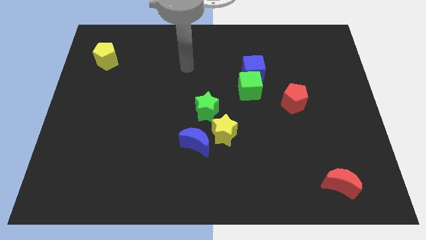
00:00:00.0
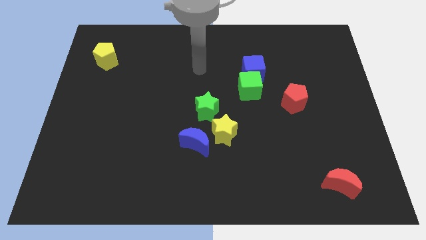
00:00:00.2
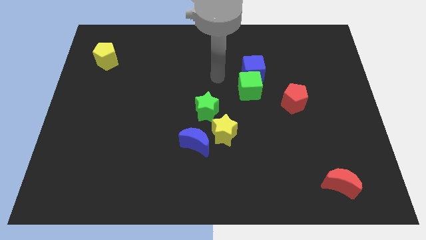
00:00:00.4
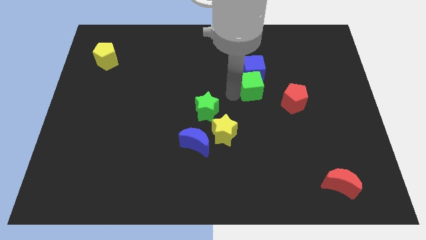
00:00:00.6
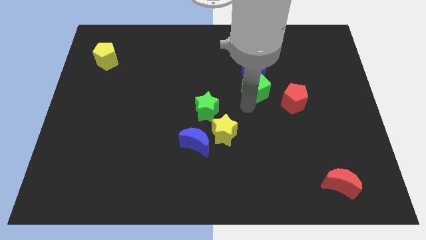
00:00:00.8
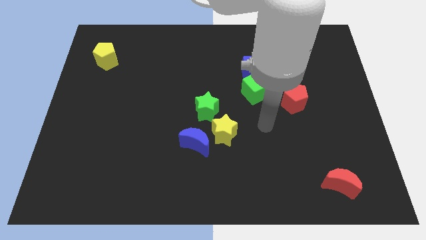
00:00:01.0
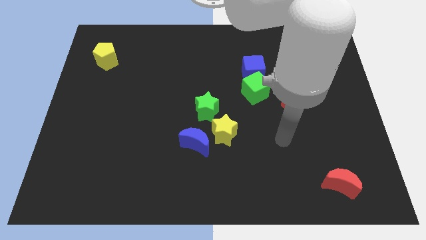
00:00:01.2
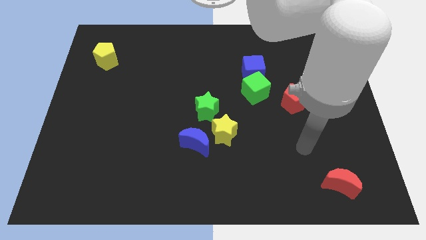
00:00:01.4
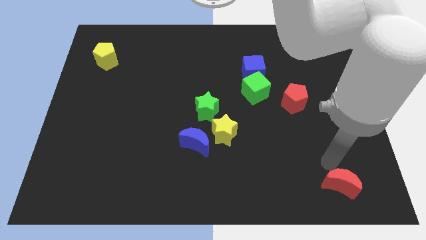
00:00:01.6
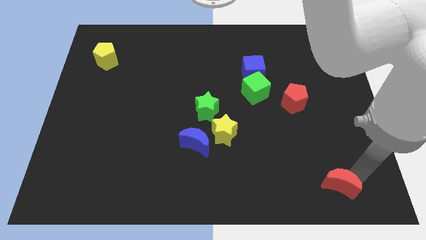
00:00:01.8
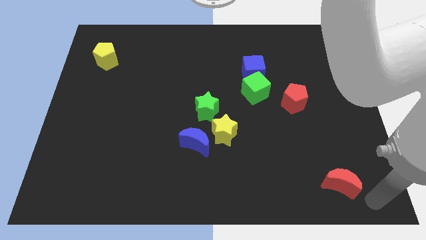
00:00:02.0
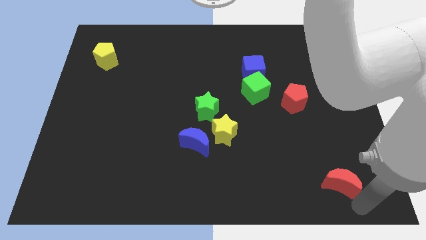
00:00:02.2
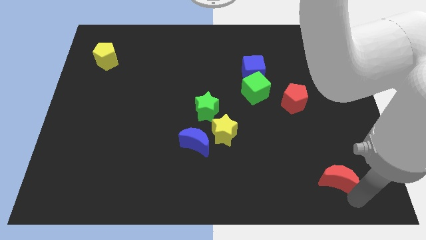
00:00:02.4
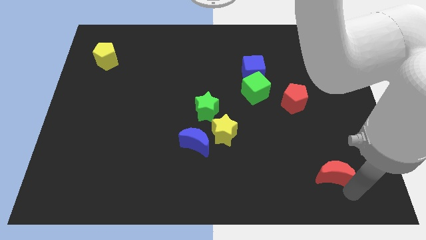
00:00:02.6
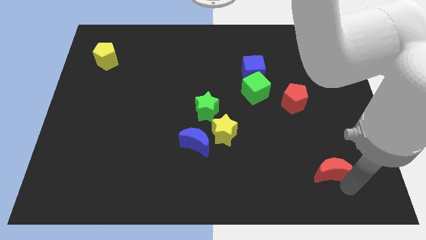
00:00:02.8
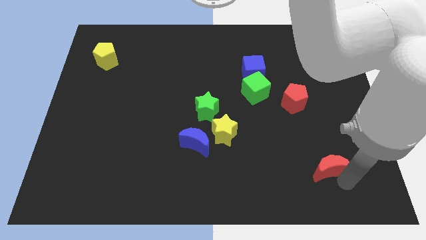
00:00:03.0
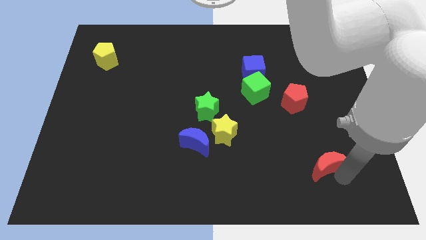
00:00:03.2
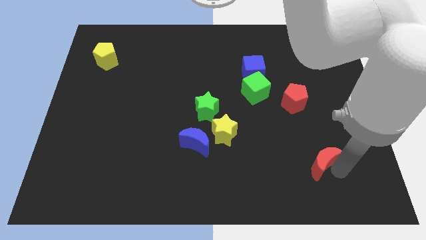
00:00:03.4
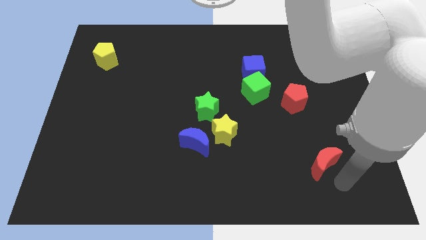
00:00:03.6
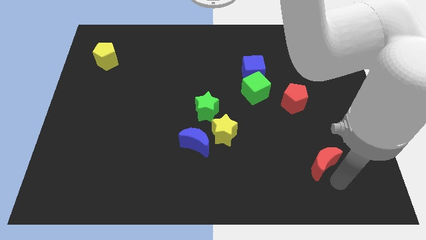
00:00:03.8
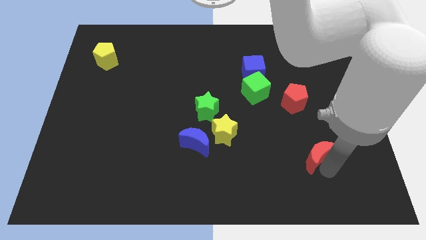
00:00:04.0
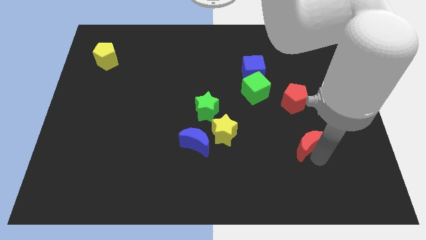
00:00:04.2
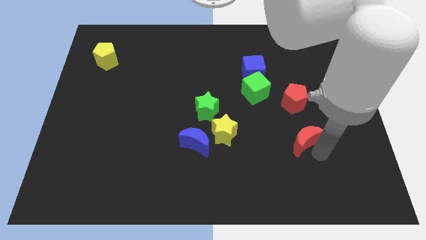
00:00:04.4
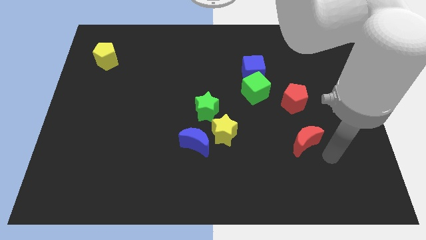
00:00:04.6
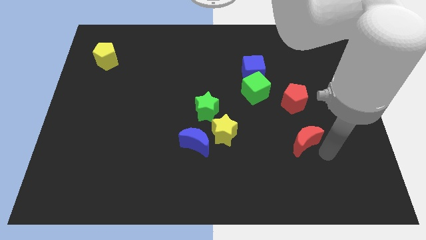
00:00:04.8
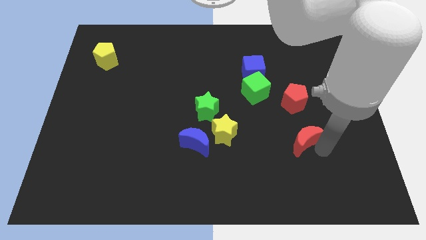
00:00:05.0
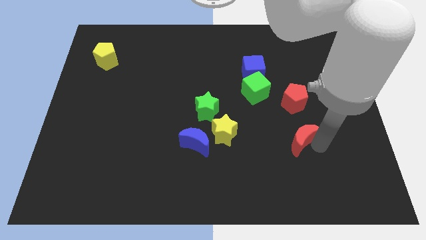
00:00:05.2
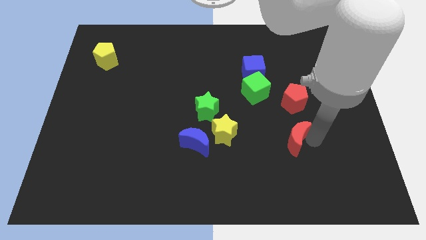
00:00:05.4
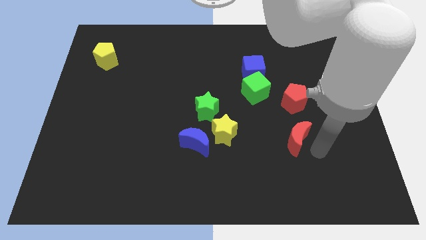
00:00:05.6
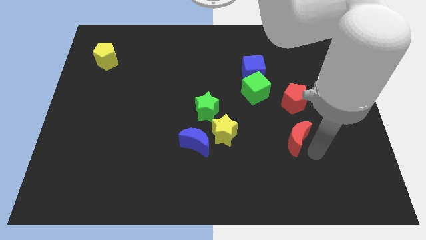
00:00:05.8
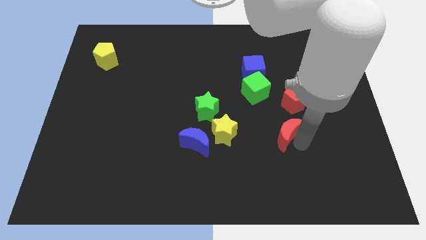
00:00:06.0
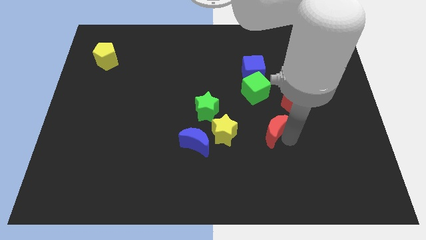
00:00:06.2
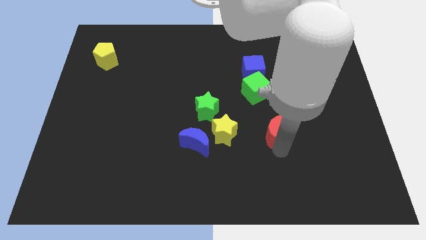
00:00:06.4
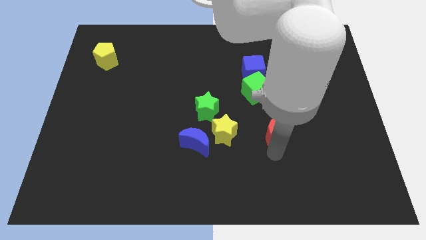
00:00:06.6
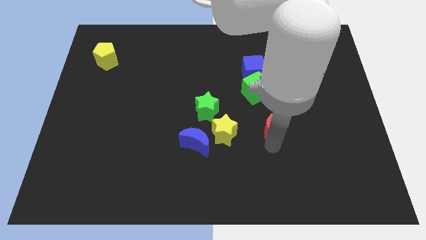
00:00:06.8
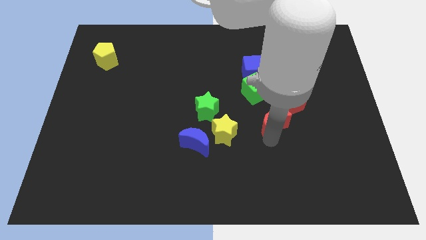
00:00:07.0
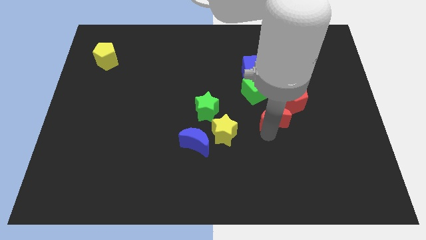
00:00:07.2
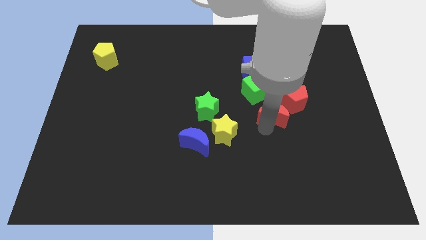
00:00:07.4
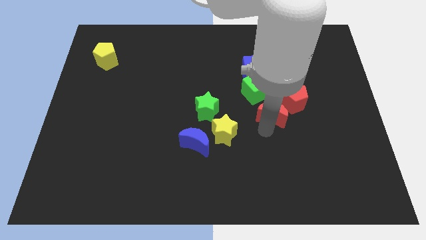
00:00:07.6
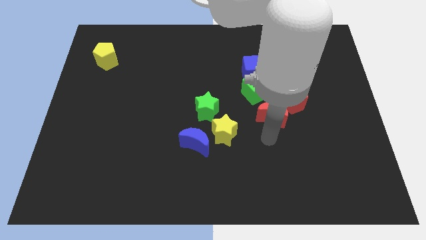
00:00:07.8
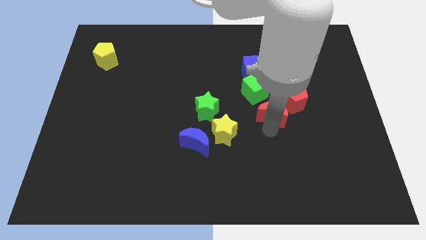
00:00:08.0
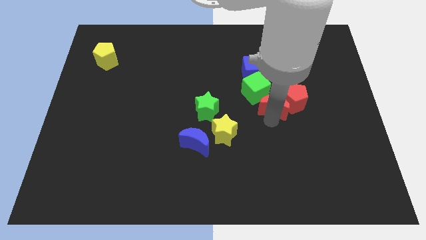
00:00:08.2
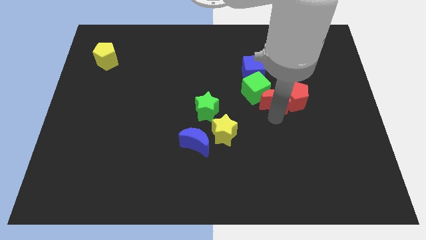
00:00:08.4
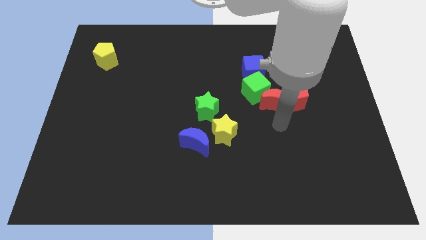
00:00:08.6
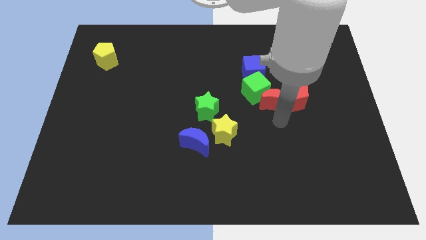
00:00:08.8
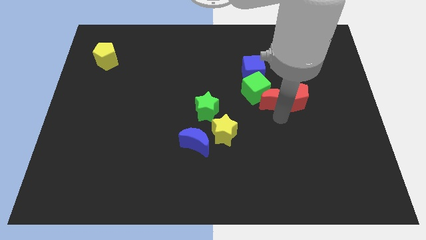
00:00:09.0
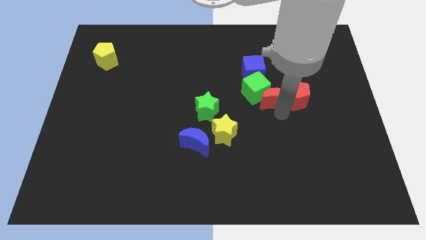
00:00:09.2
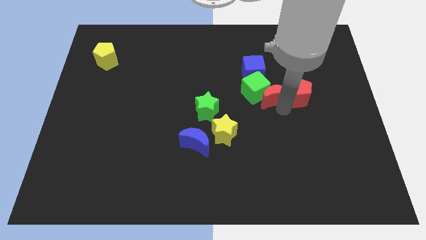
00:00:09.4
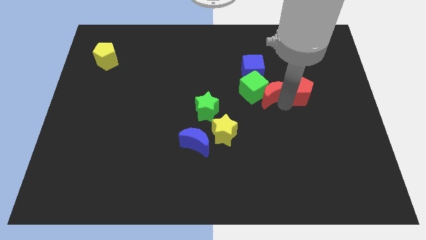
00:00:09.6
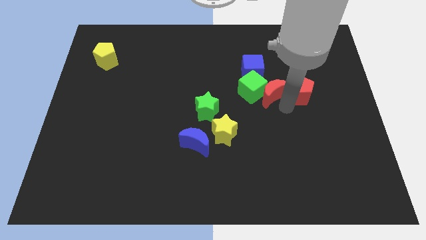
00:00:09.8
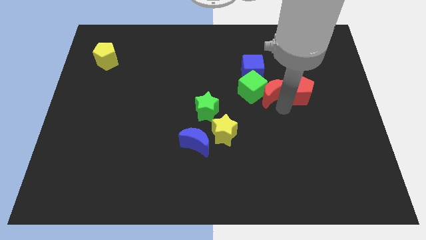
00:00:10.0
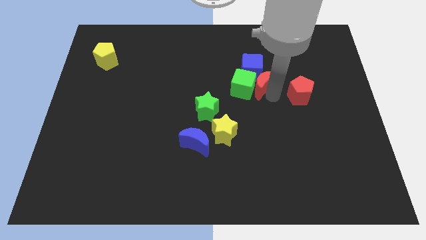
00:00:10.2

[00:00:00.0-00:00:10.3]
push the red moon next to the blue cube

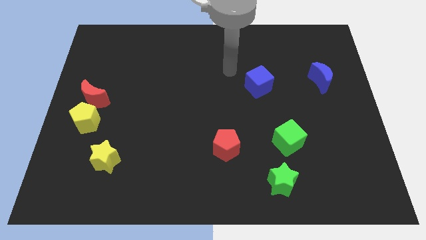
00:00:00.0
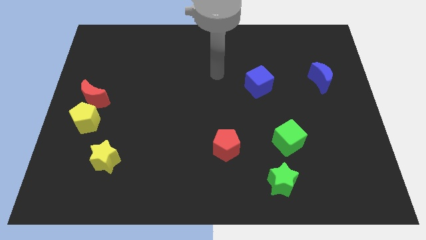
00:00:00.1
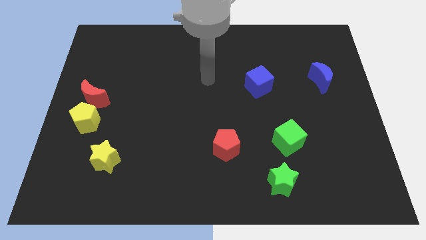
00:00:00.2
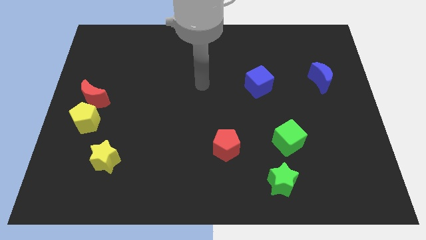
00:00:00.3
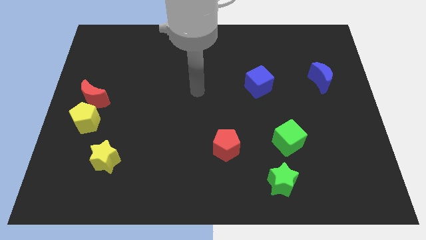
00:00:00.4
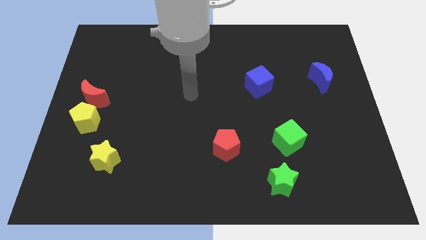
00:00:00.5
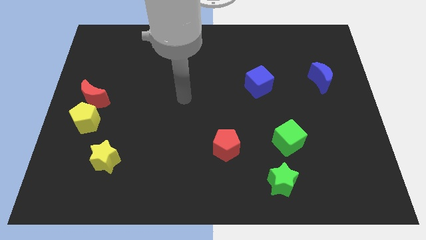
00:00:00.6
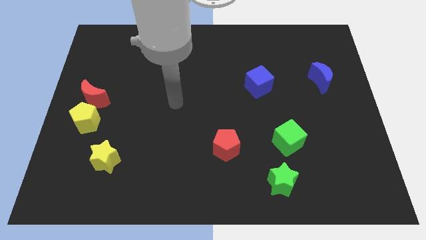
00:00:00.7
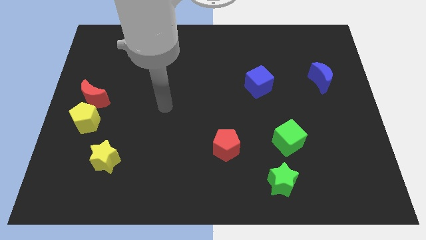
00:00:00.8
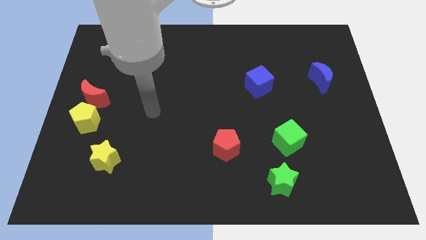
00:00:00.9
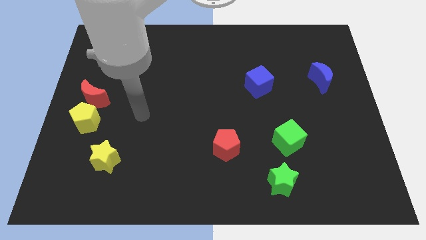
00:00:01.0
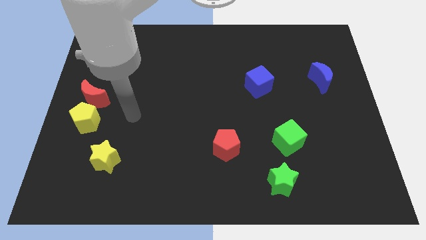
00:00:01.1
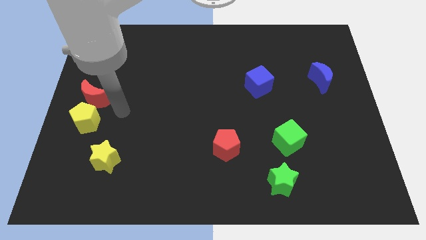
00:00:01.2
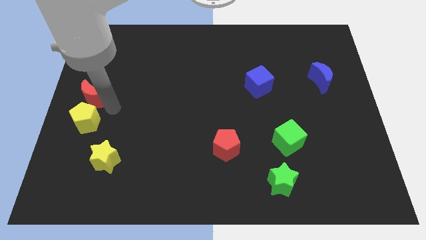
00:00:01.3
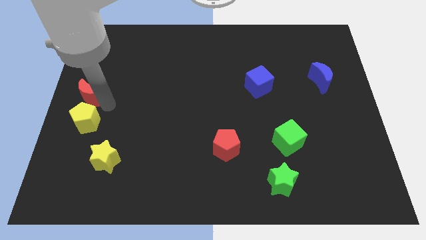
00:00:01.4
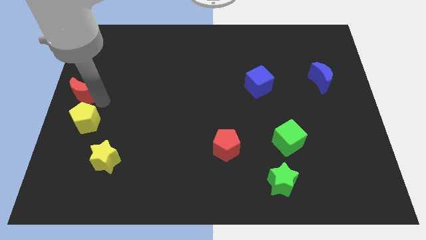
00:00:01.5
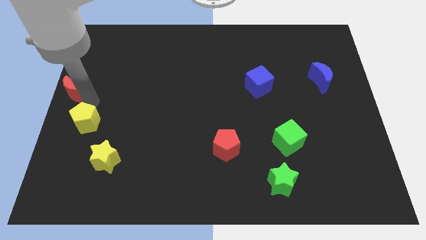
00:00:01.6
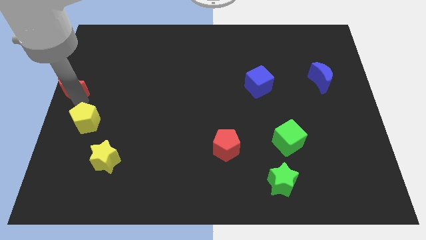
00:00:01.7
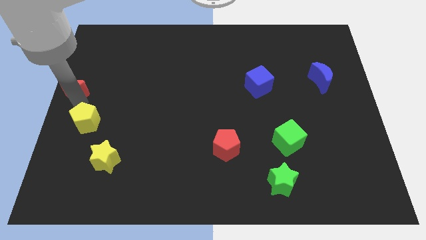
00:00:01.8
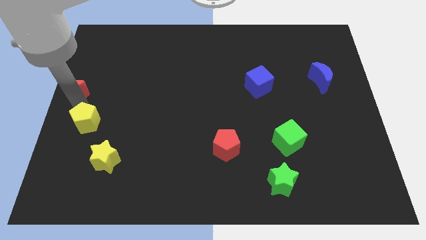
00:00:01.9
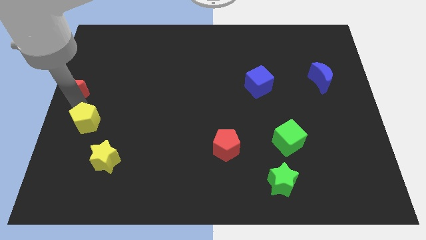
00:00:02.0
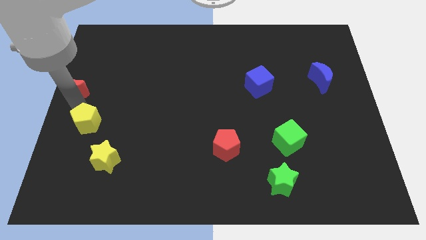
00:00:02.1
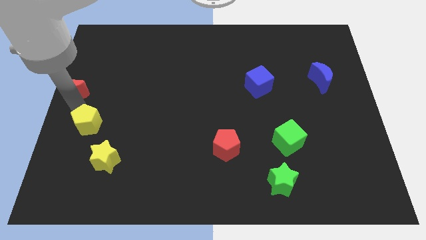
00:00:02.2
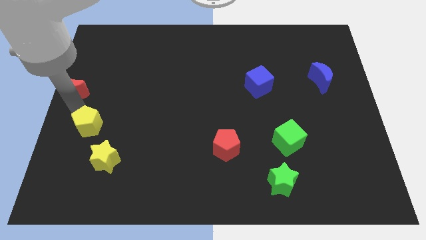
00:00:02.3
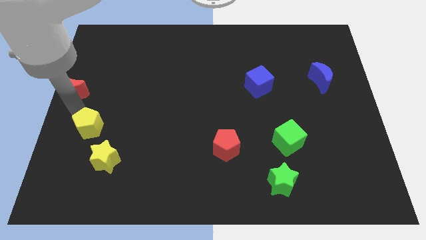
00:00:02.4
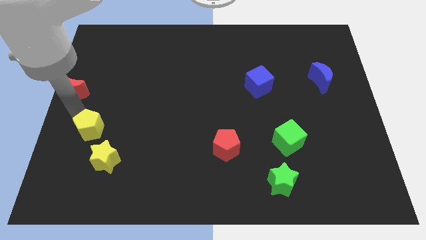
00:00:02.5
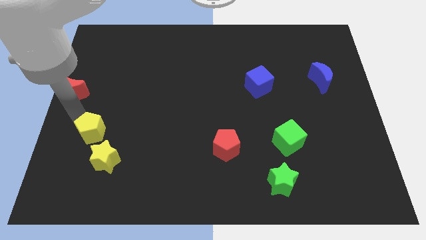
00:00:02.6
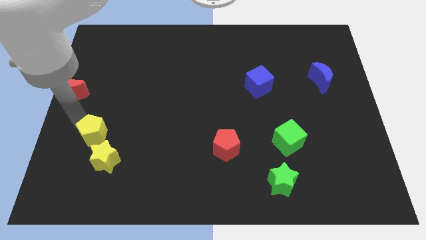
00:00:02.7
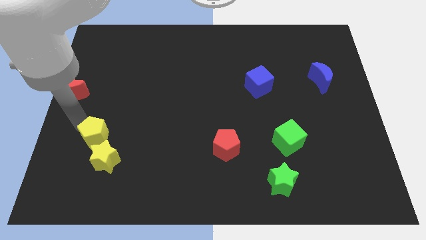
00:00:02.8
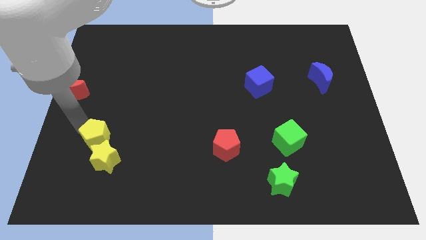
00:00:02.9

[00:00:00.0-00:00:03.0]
put the yellow pentagon next to the yellow star
